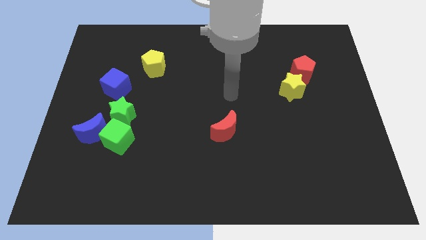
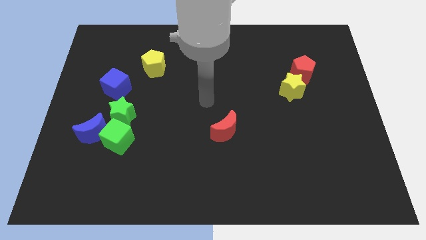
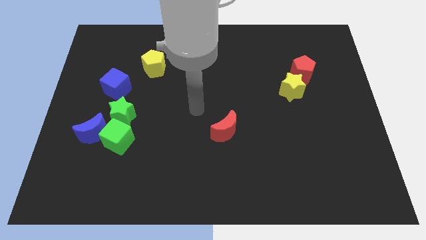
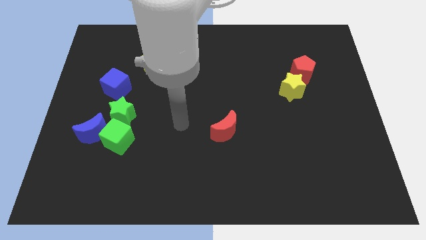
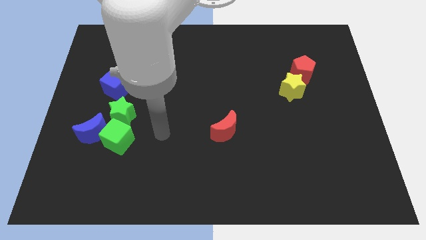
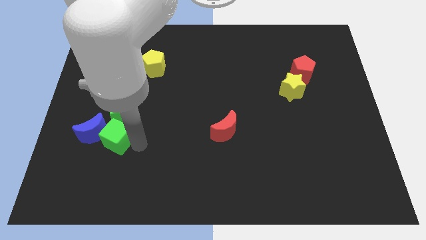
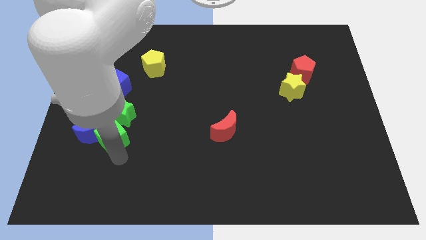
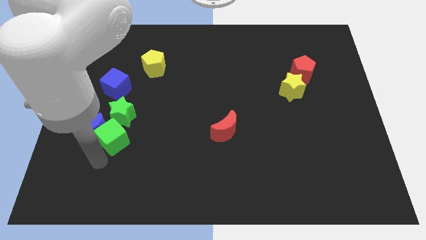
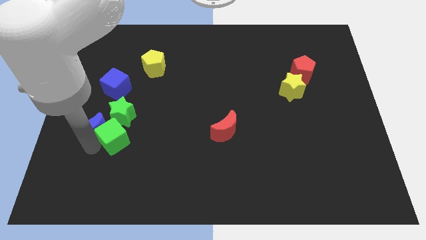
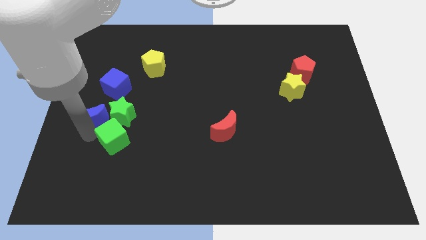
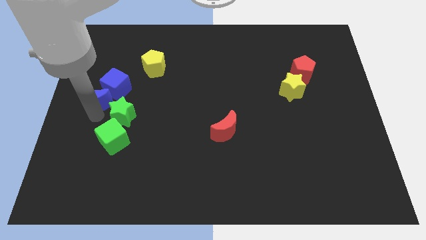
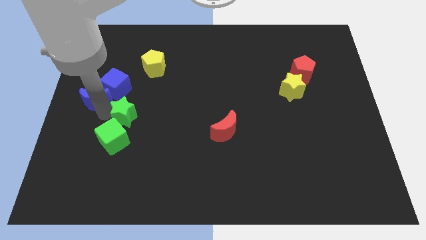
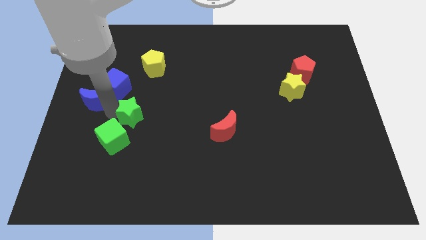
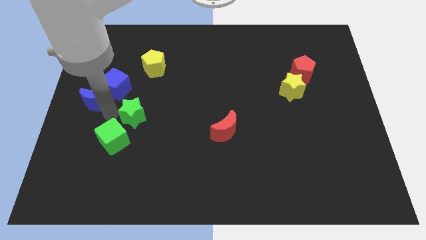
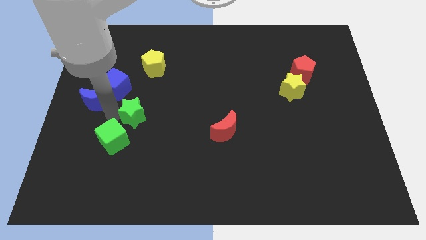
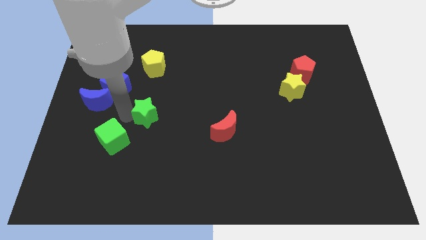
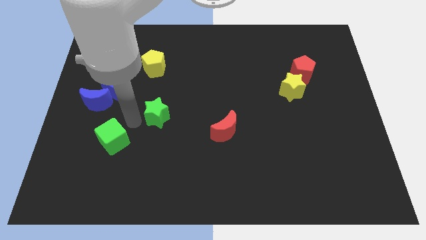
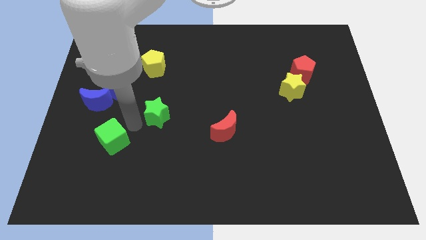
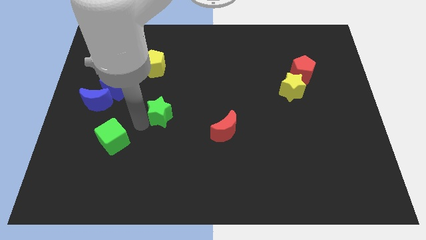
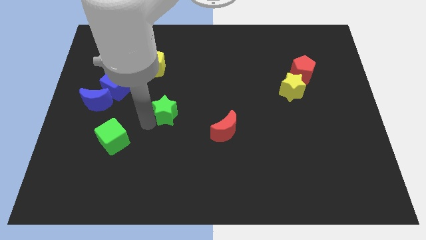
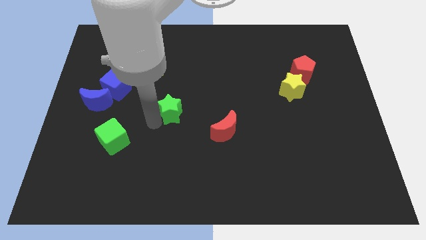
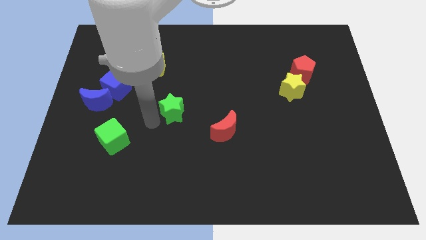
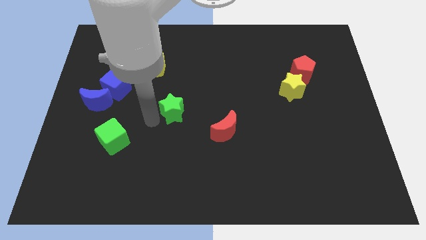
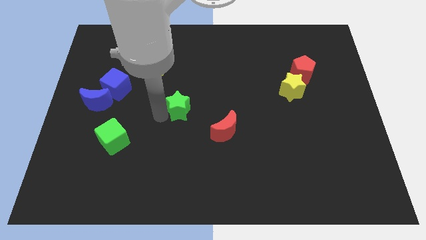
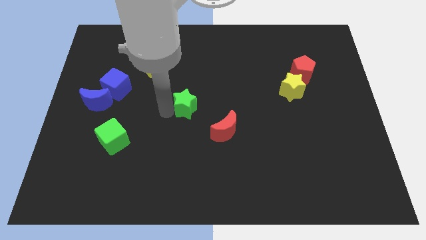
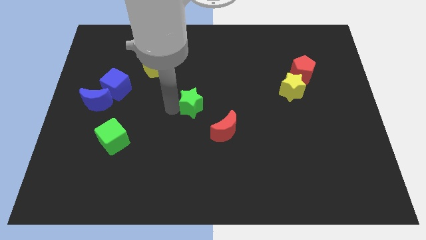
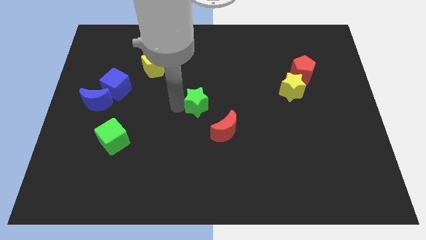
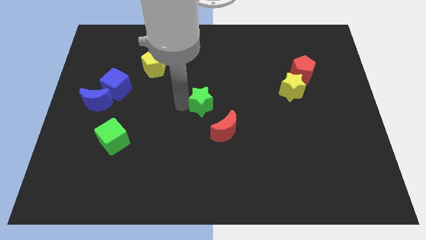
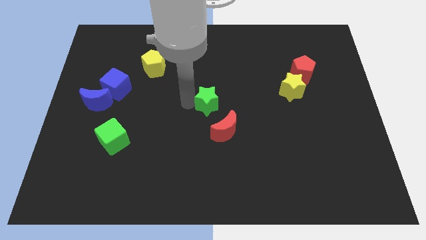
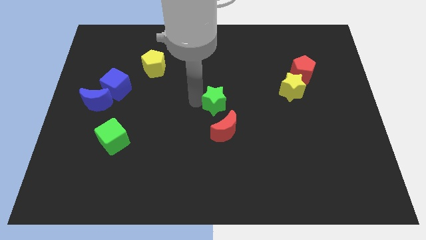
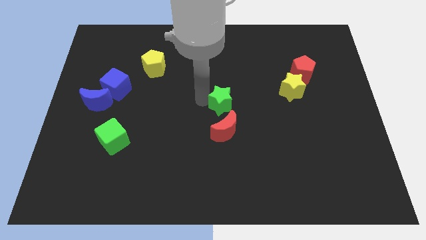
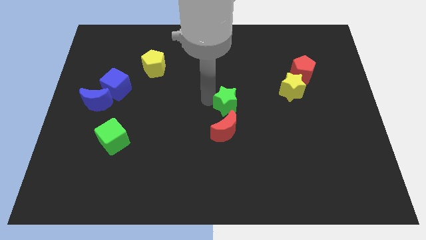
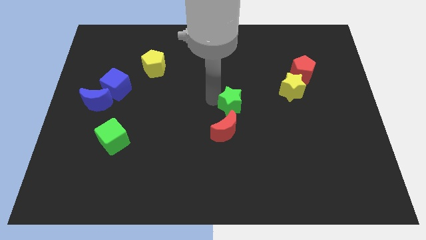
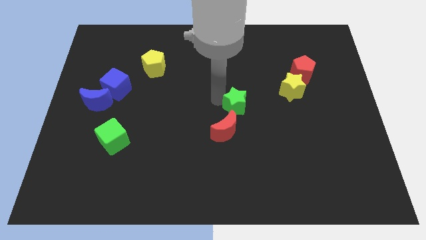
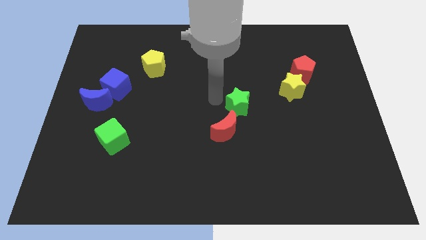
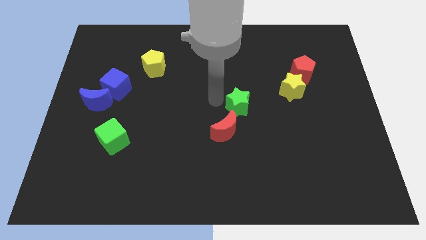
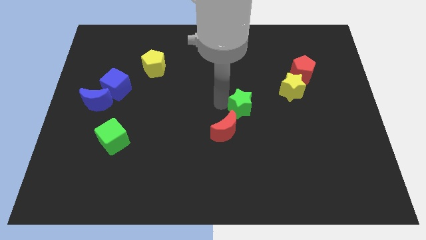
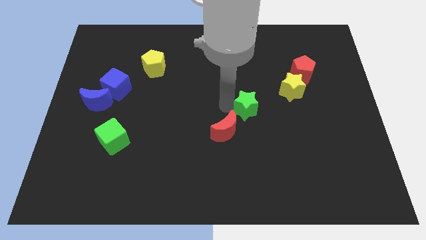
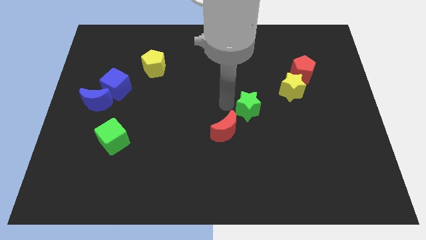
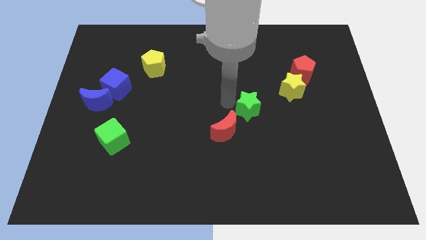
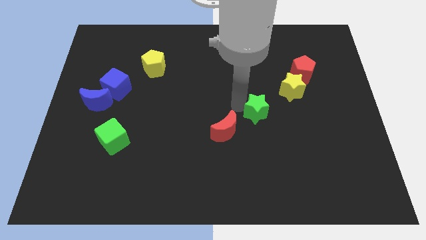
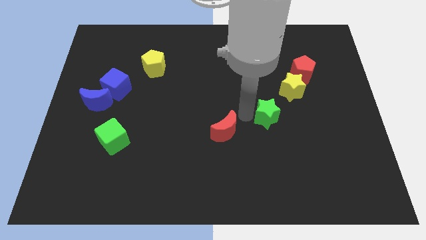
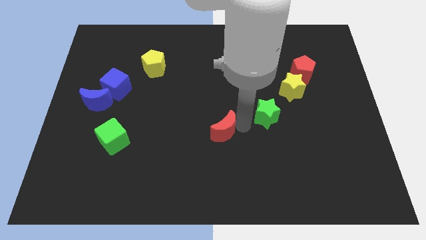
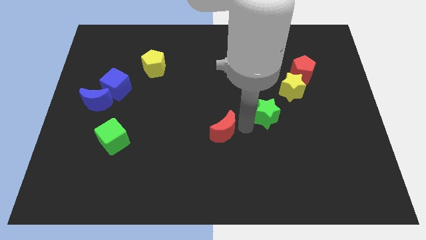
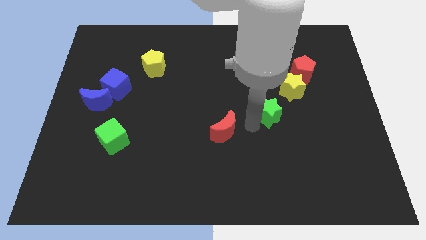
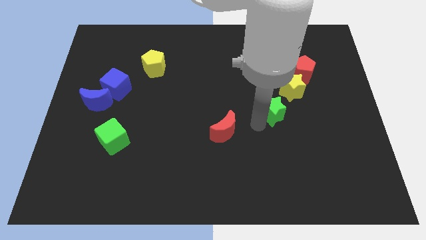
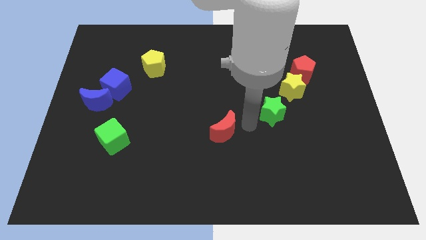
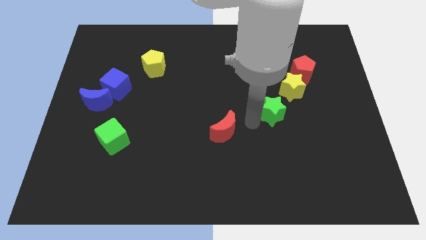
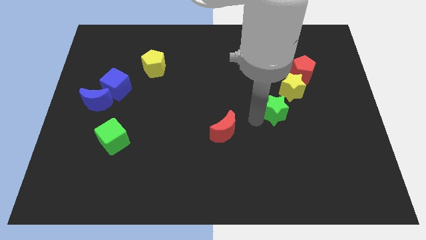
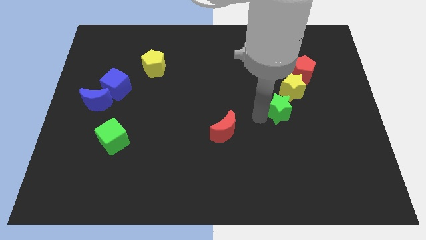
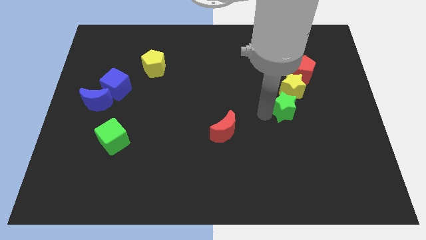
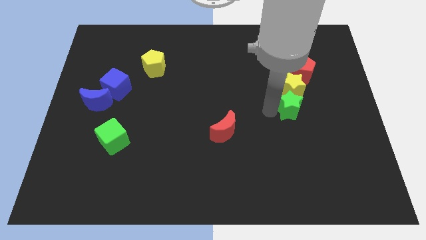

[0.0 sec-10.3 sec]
put the green star to the bottom of the red pentagon

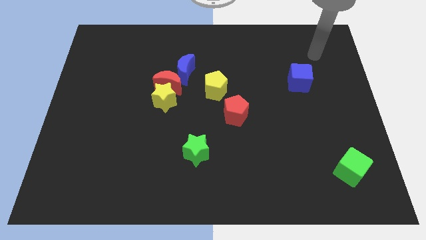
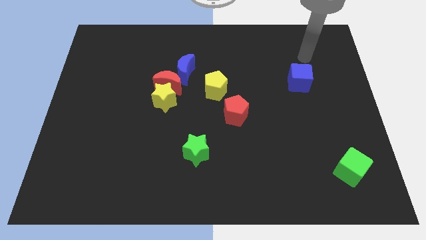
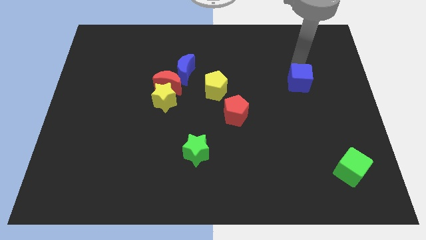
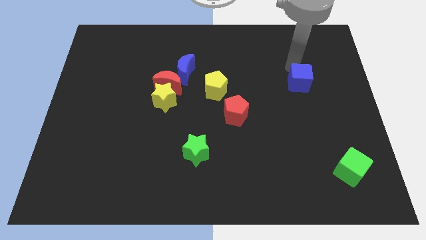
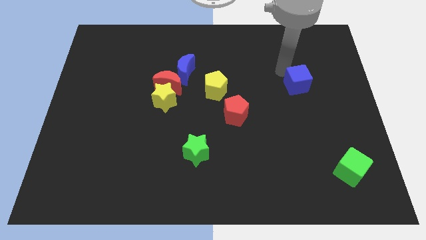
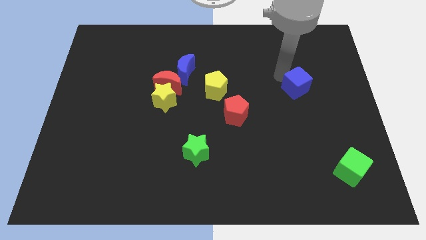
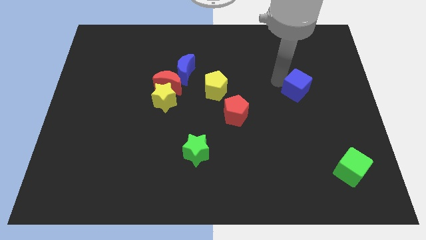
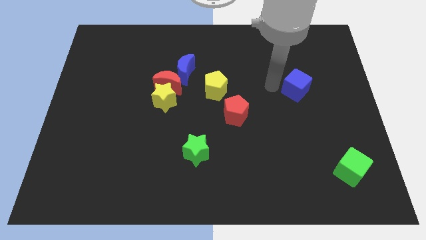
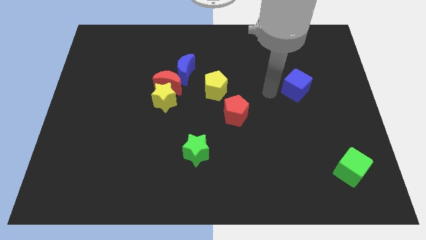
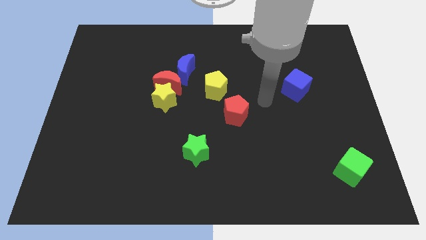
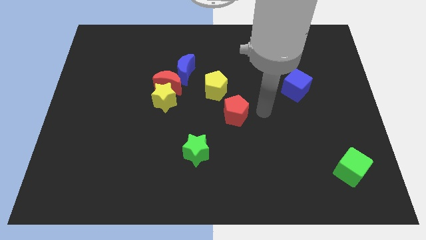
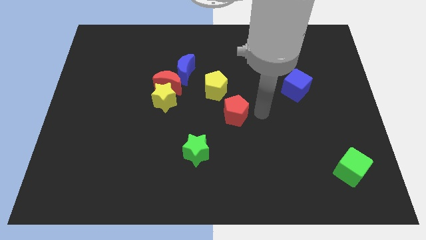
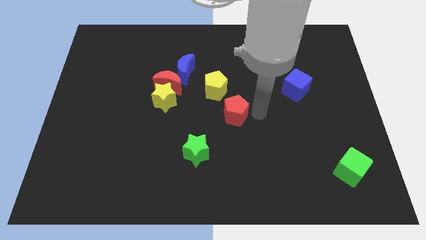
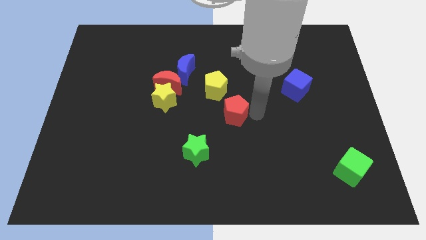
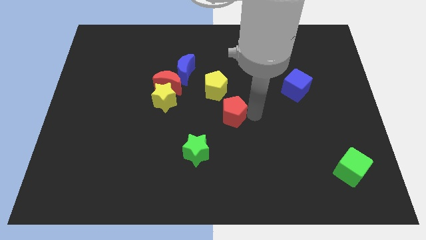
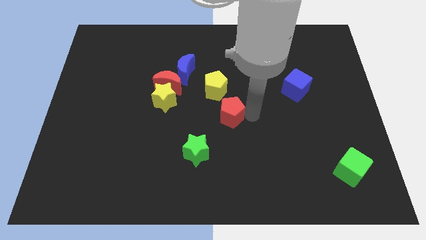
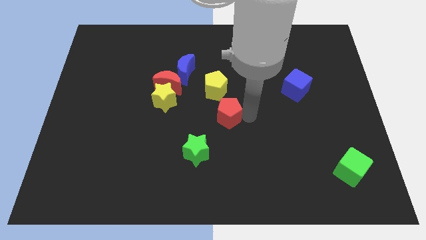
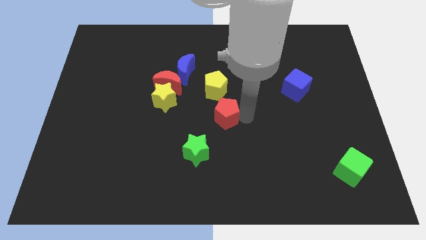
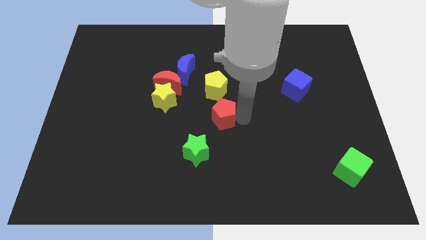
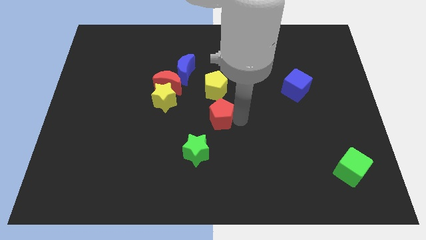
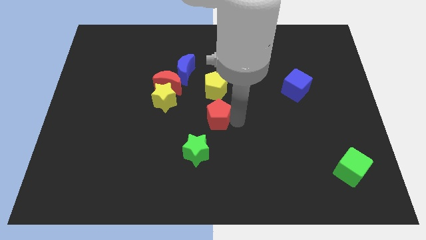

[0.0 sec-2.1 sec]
slide the red pentagon to the top of the green star
